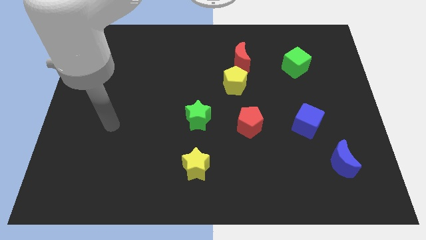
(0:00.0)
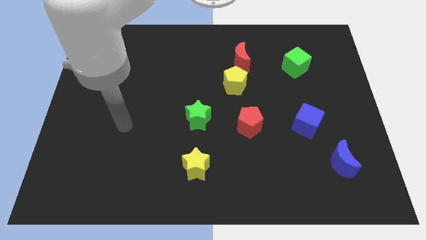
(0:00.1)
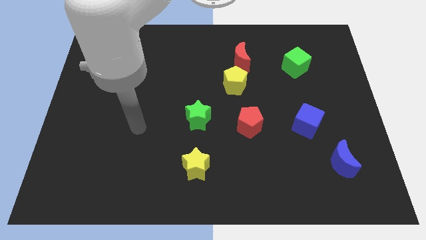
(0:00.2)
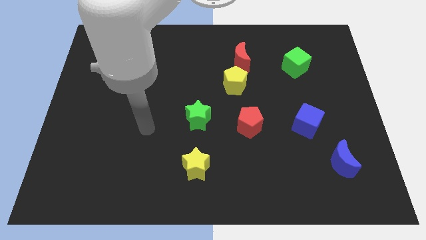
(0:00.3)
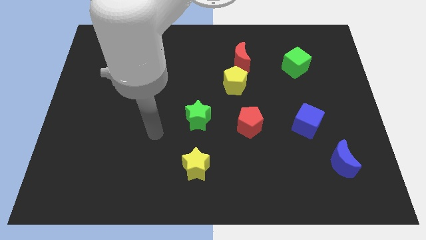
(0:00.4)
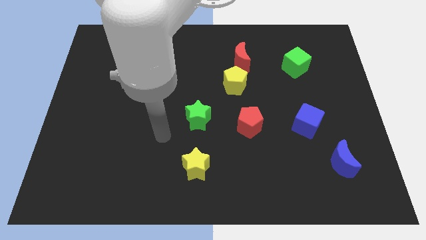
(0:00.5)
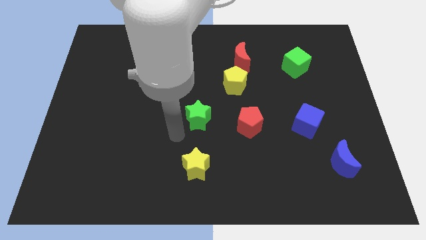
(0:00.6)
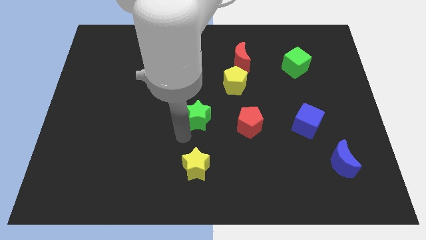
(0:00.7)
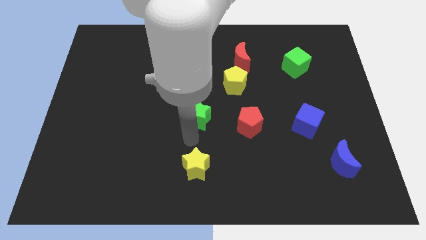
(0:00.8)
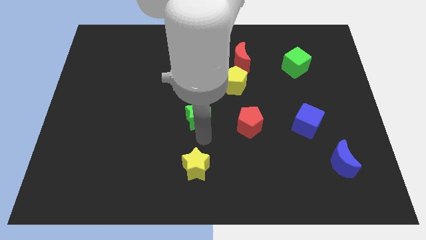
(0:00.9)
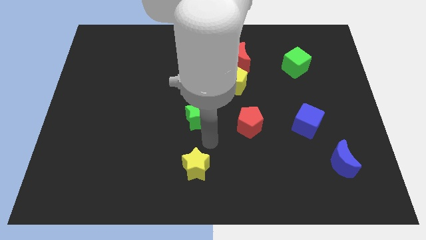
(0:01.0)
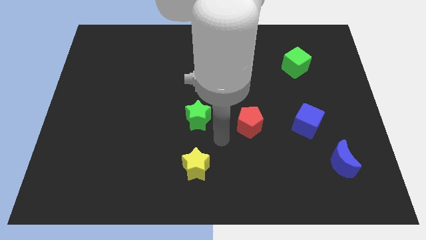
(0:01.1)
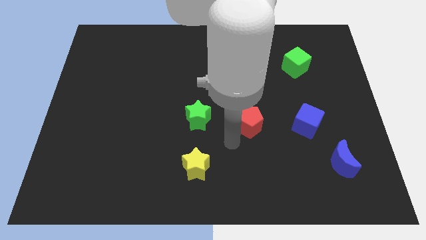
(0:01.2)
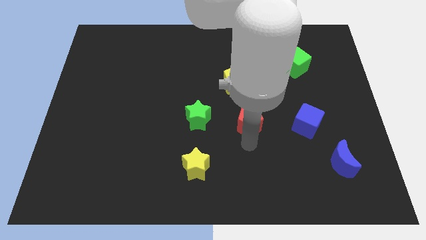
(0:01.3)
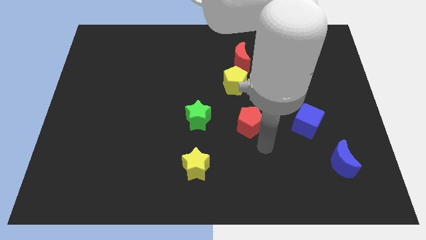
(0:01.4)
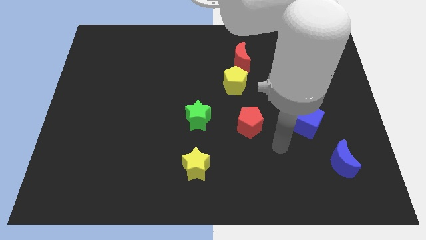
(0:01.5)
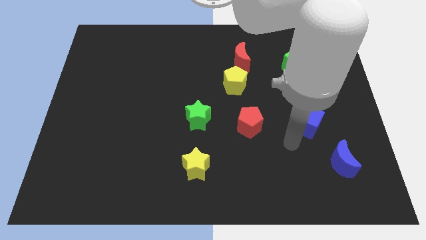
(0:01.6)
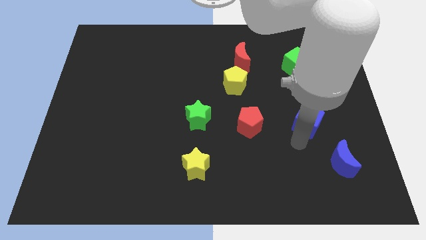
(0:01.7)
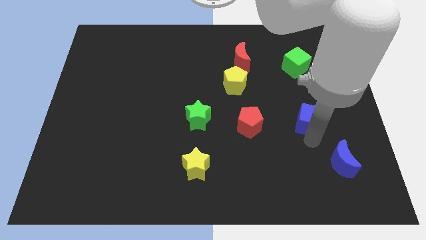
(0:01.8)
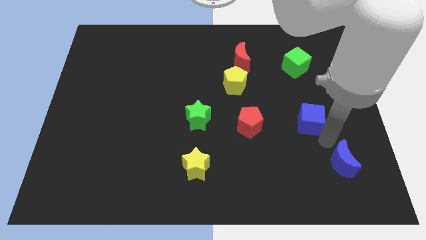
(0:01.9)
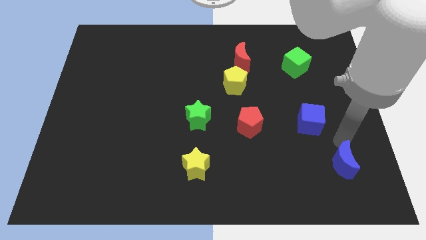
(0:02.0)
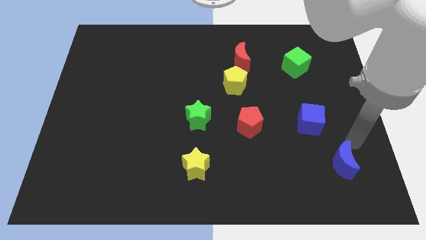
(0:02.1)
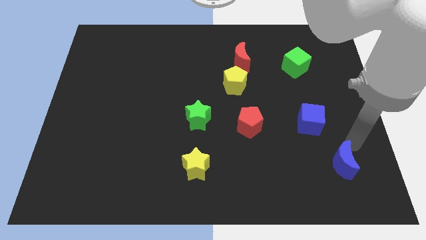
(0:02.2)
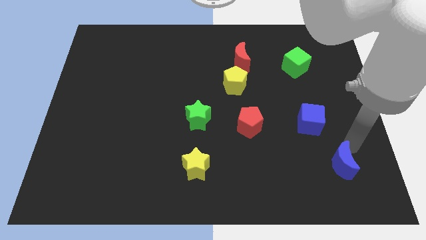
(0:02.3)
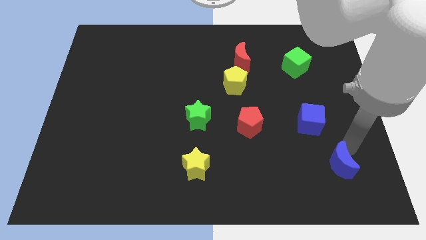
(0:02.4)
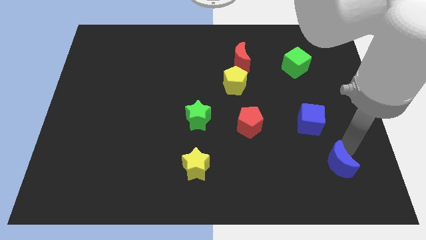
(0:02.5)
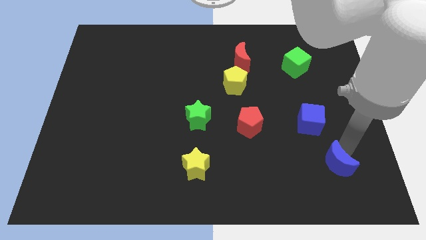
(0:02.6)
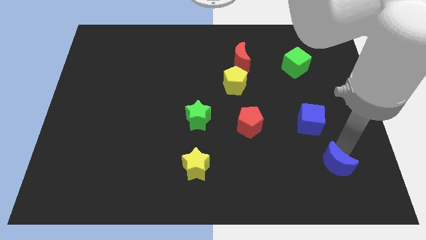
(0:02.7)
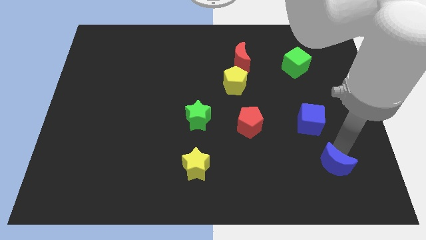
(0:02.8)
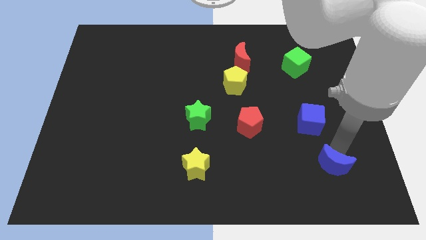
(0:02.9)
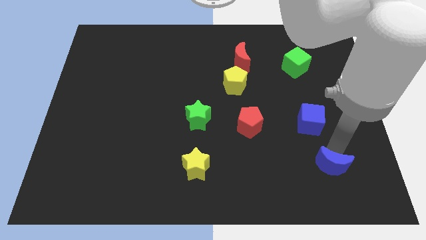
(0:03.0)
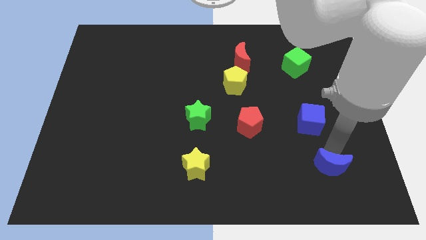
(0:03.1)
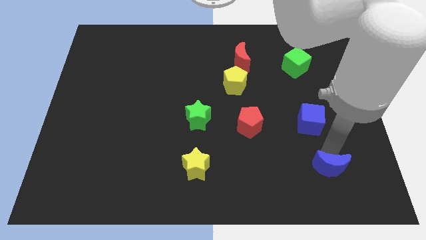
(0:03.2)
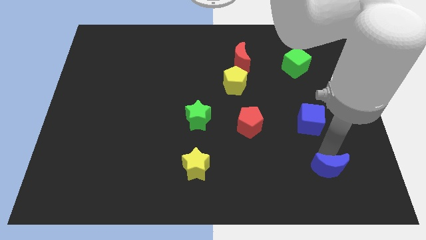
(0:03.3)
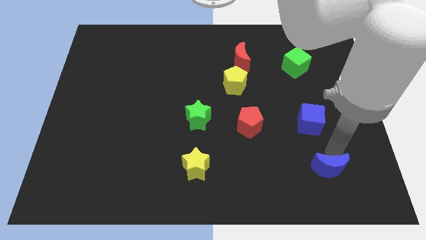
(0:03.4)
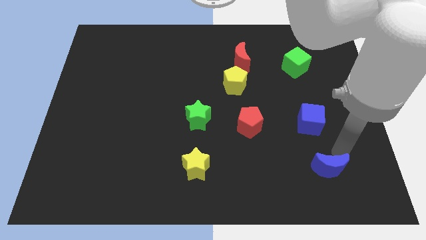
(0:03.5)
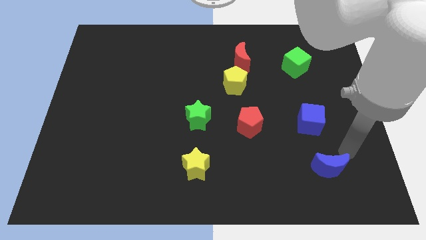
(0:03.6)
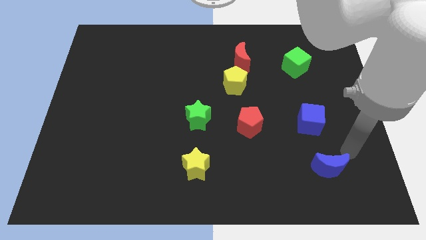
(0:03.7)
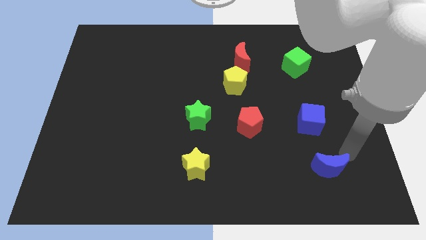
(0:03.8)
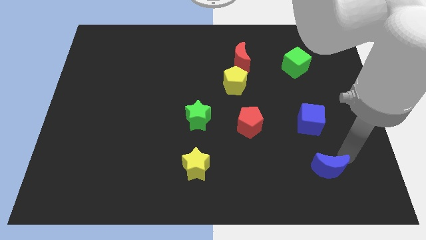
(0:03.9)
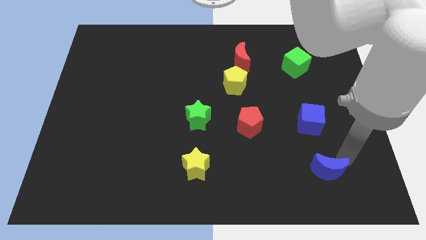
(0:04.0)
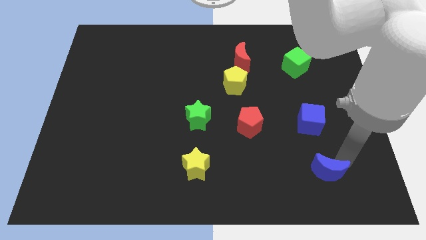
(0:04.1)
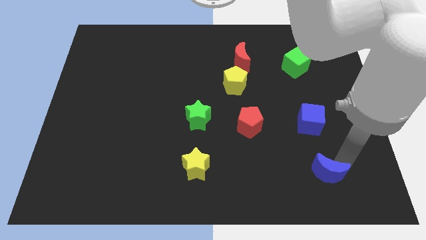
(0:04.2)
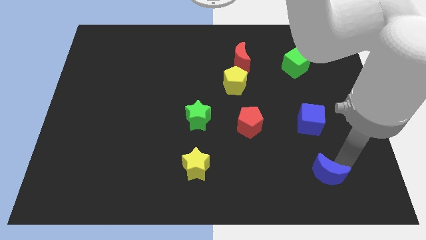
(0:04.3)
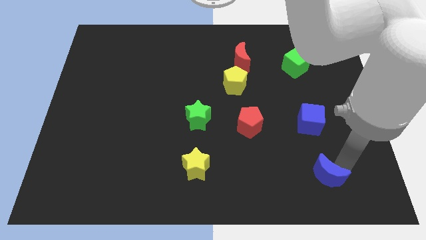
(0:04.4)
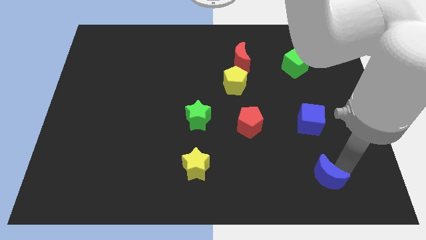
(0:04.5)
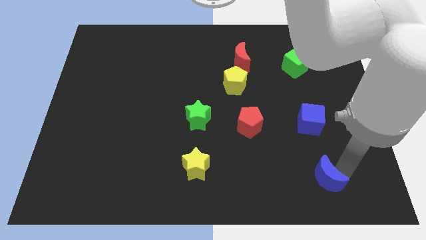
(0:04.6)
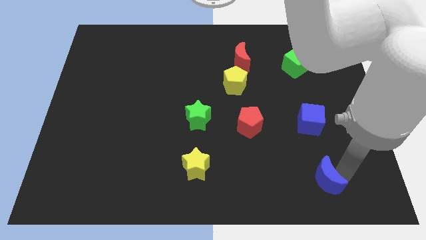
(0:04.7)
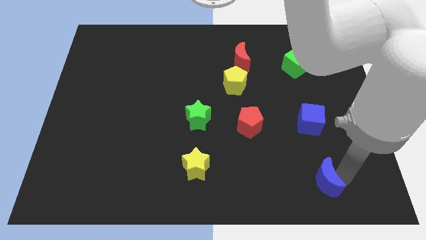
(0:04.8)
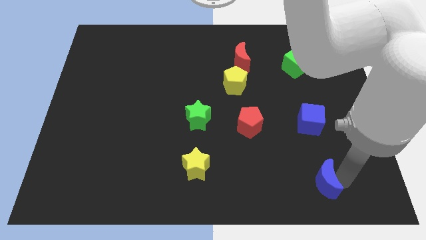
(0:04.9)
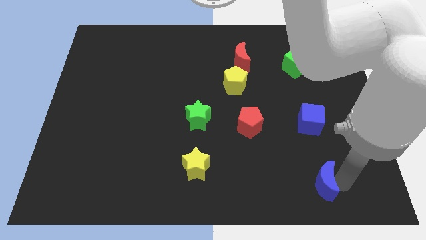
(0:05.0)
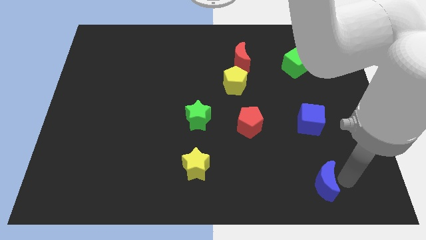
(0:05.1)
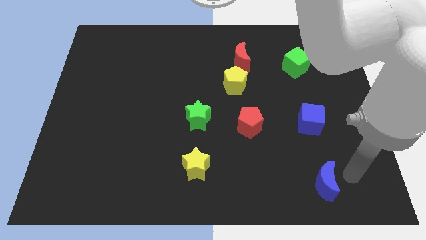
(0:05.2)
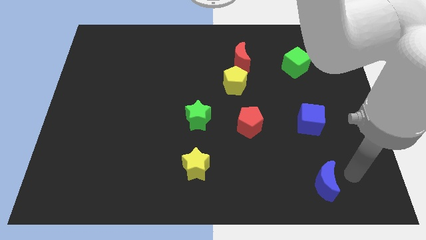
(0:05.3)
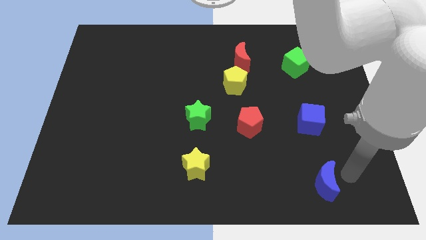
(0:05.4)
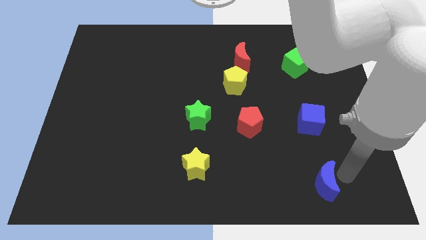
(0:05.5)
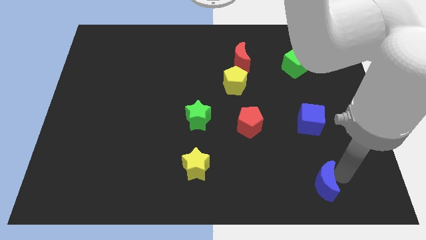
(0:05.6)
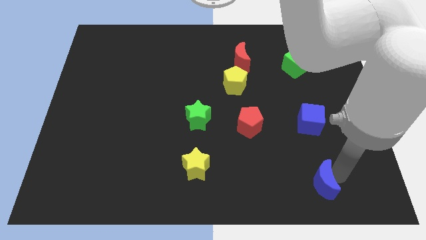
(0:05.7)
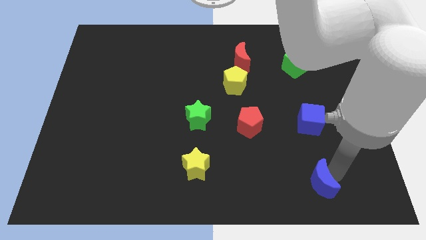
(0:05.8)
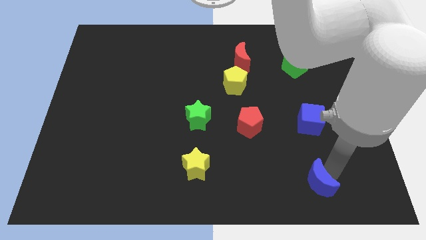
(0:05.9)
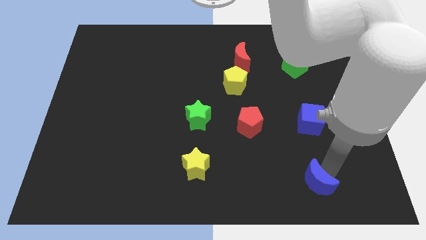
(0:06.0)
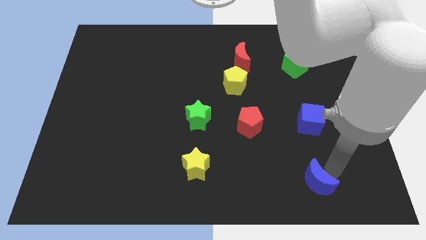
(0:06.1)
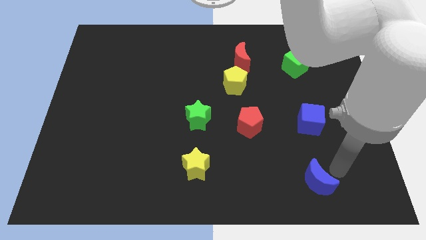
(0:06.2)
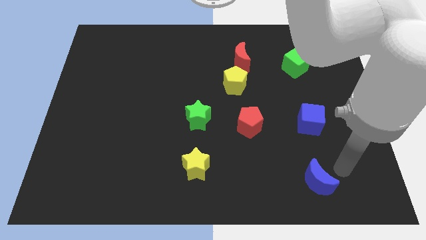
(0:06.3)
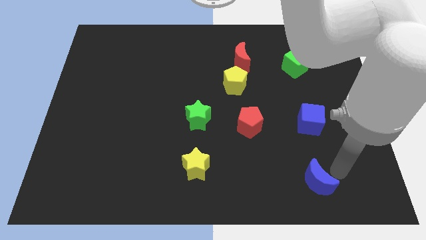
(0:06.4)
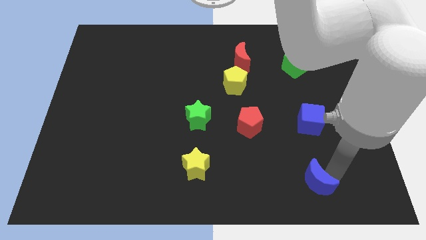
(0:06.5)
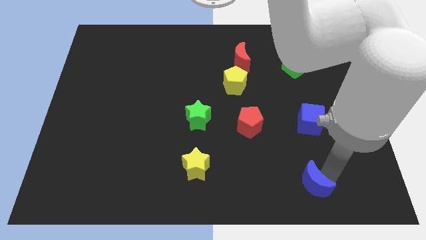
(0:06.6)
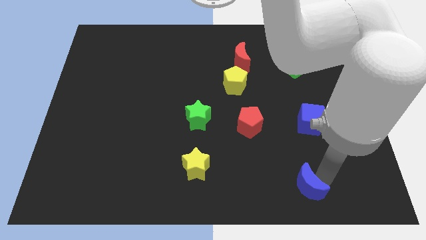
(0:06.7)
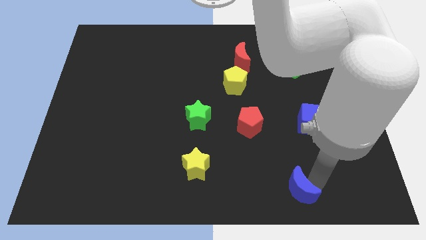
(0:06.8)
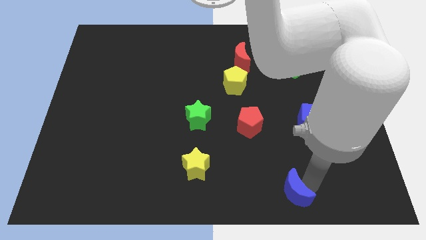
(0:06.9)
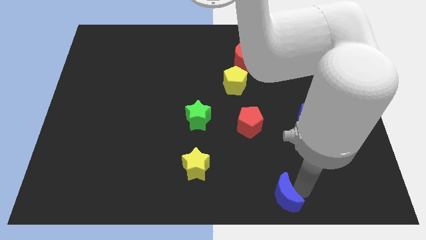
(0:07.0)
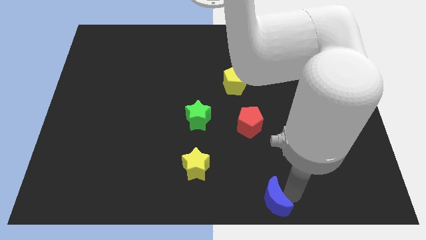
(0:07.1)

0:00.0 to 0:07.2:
push the blue moon to the bottom
